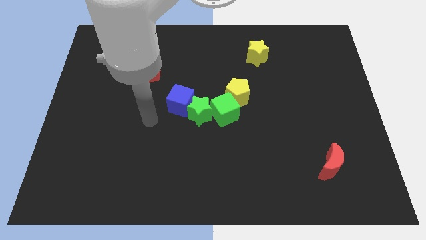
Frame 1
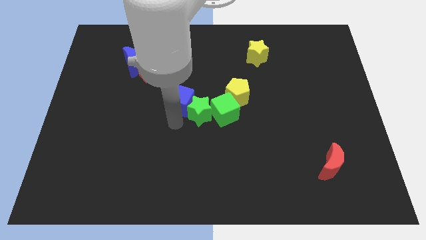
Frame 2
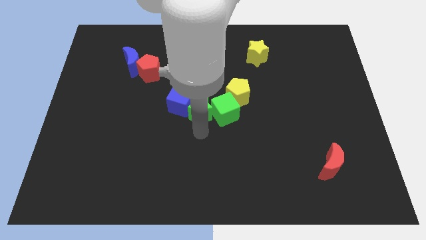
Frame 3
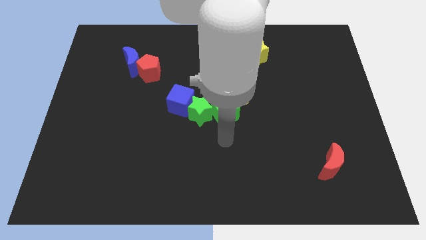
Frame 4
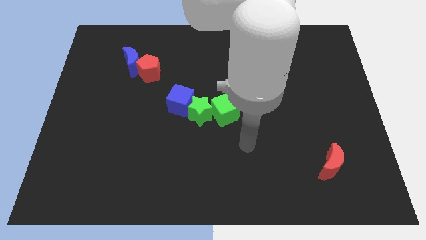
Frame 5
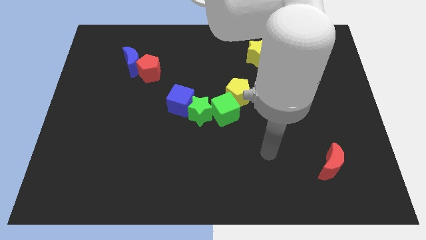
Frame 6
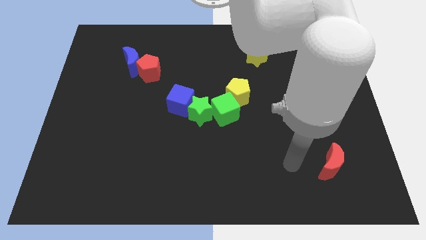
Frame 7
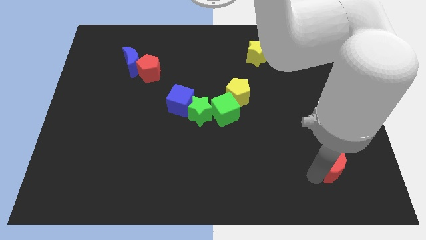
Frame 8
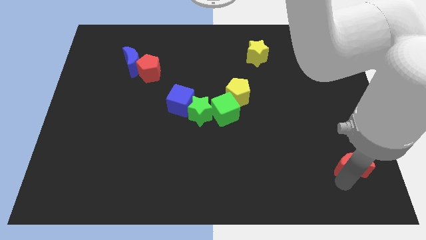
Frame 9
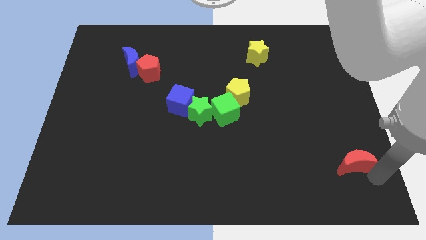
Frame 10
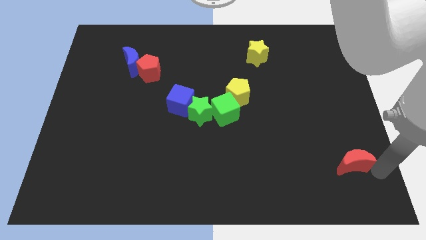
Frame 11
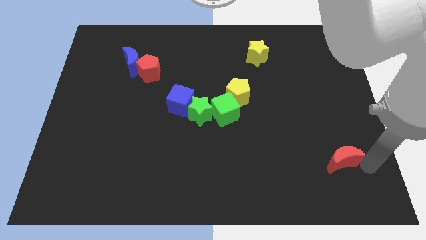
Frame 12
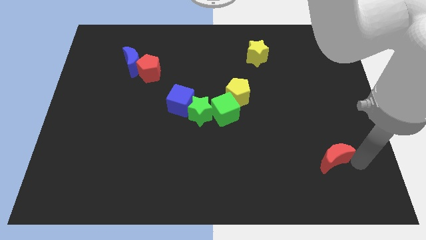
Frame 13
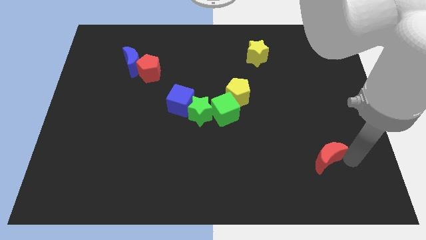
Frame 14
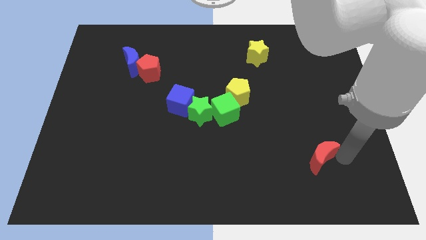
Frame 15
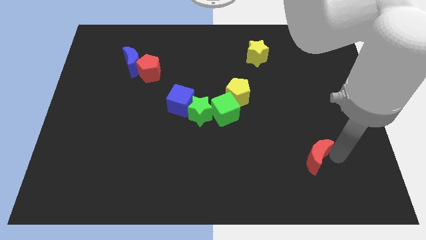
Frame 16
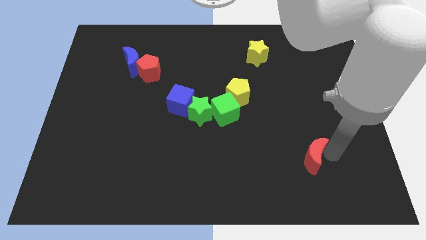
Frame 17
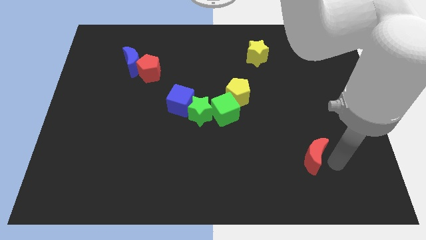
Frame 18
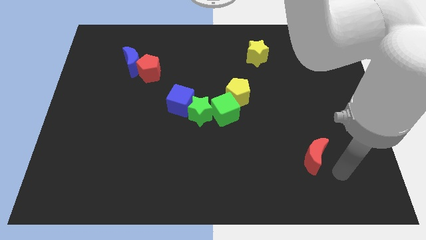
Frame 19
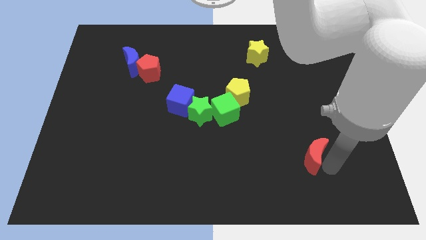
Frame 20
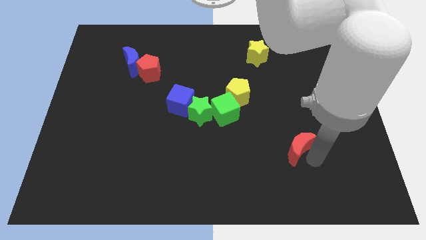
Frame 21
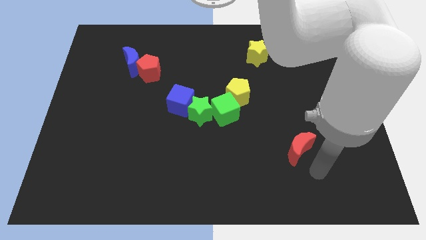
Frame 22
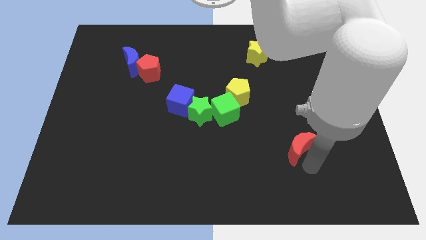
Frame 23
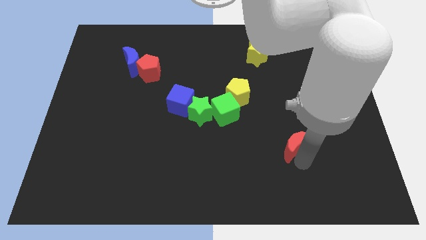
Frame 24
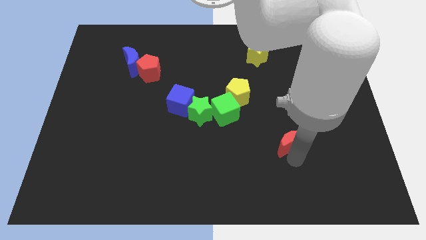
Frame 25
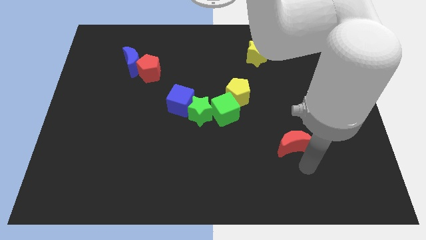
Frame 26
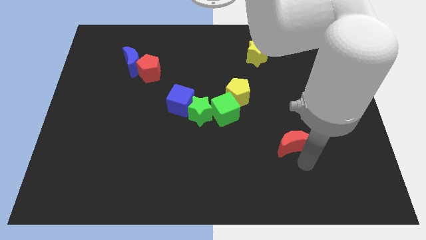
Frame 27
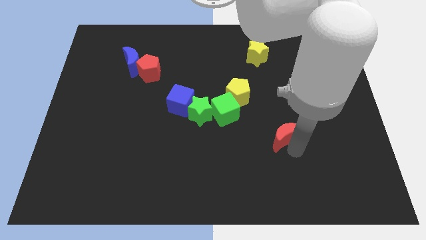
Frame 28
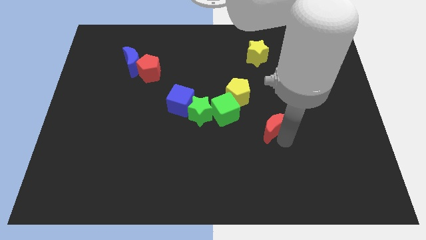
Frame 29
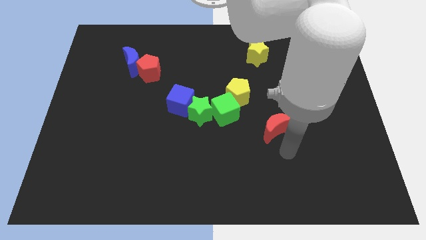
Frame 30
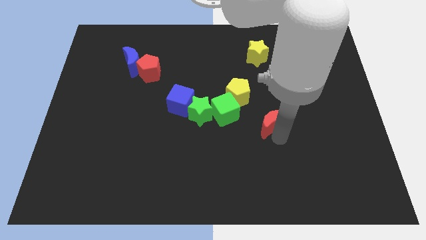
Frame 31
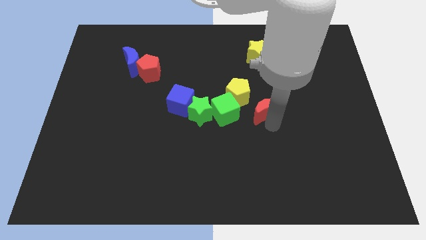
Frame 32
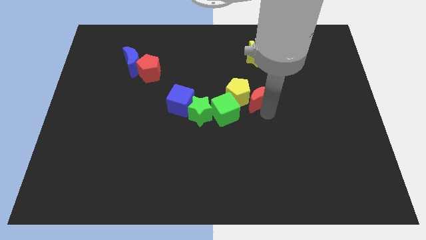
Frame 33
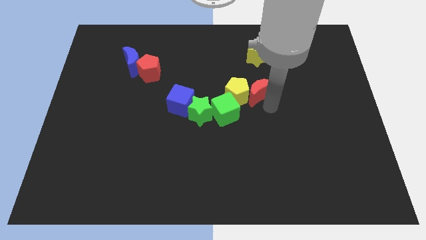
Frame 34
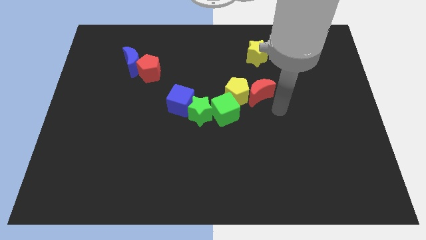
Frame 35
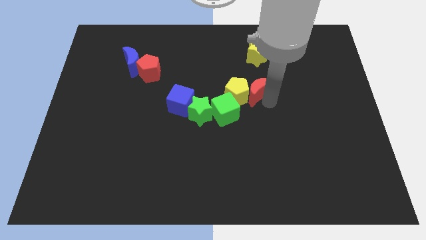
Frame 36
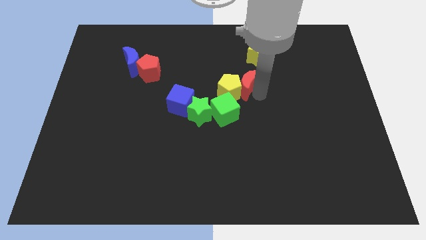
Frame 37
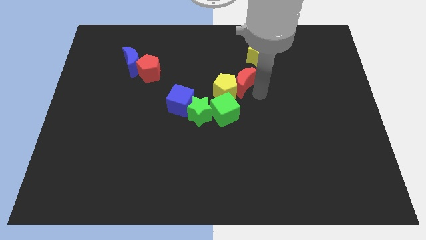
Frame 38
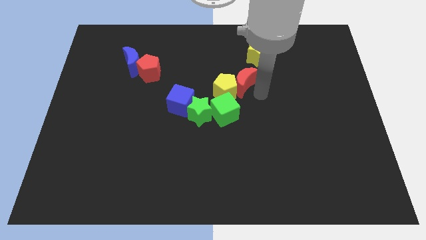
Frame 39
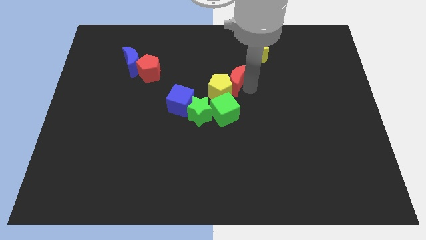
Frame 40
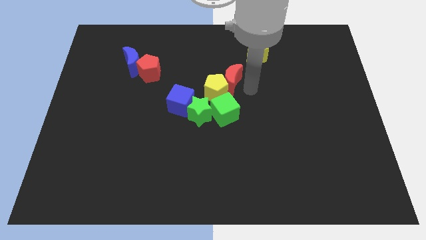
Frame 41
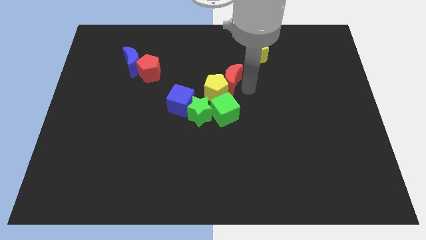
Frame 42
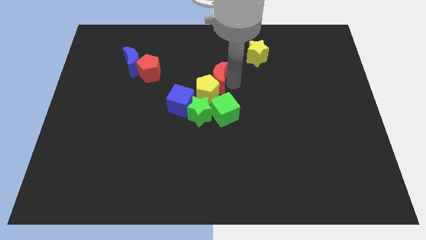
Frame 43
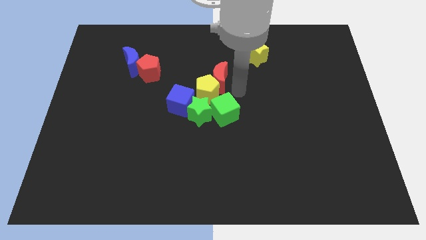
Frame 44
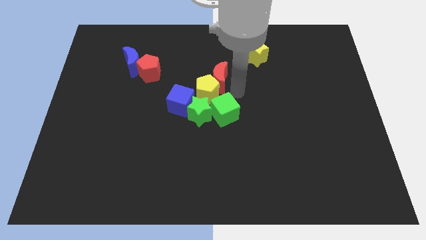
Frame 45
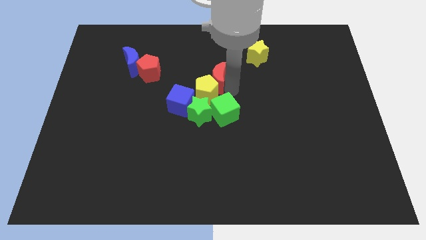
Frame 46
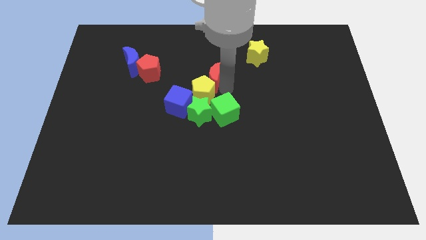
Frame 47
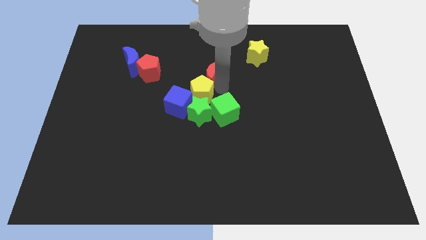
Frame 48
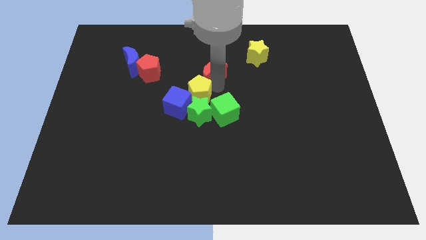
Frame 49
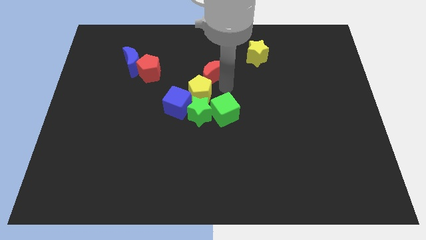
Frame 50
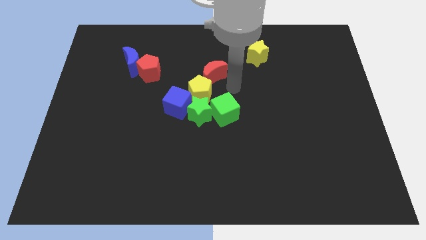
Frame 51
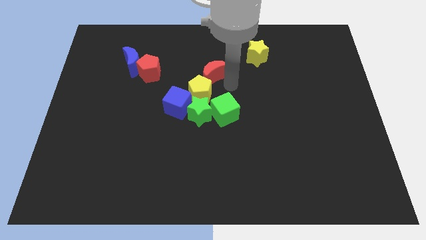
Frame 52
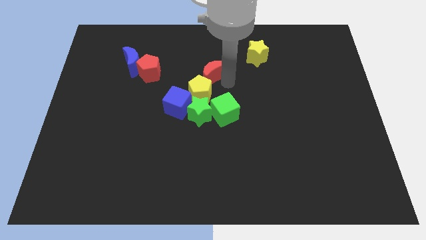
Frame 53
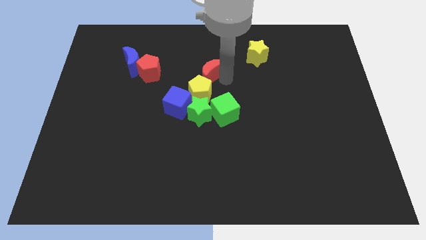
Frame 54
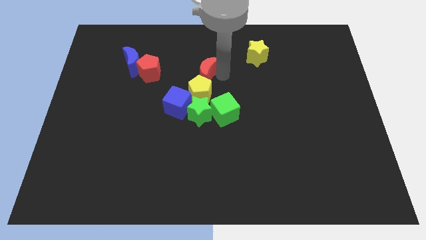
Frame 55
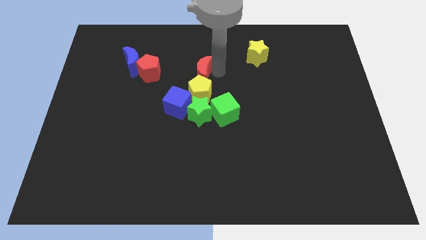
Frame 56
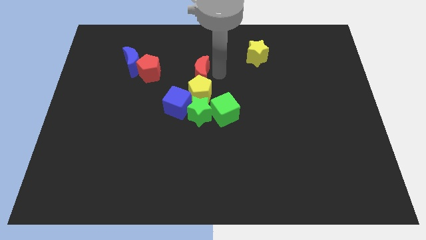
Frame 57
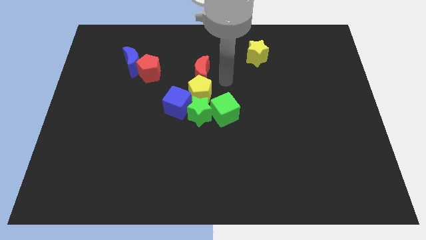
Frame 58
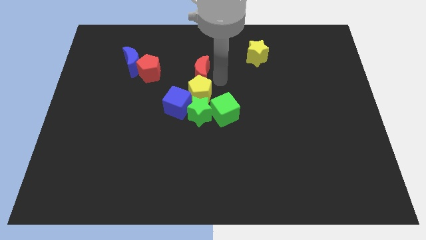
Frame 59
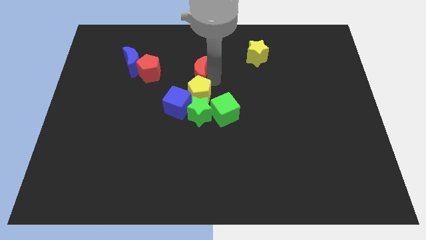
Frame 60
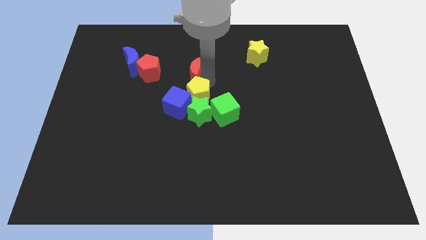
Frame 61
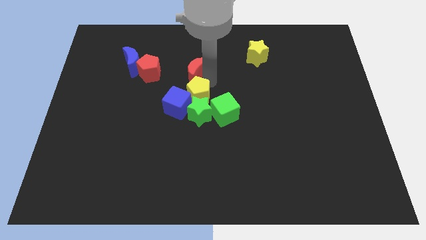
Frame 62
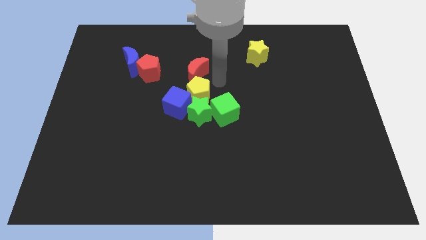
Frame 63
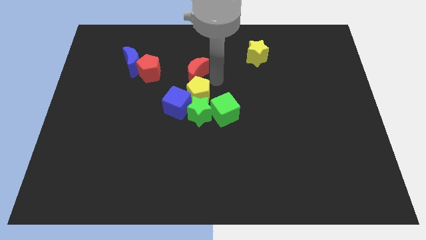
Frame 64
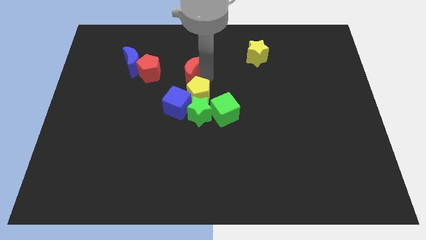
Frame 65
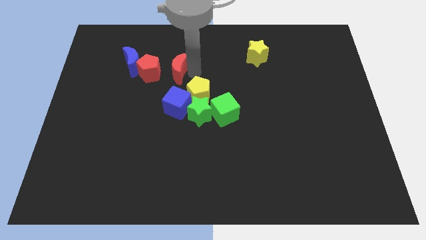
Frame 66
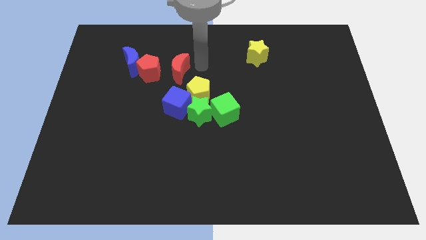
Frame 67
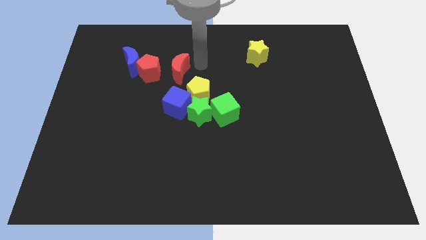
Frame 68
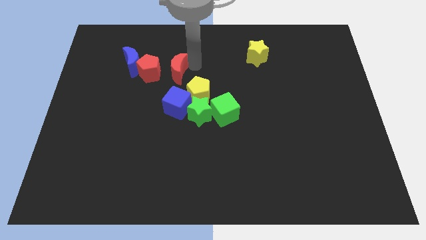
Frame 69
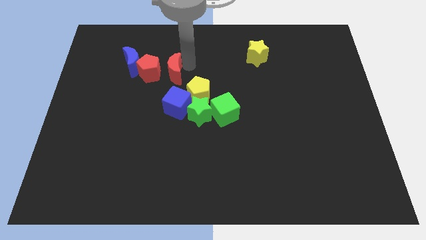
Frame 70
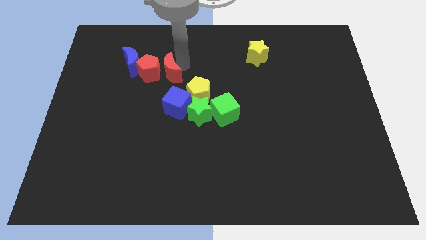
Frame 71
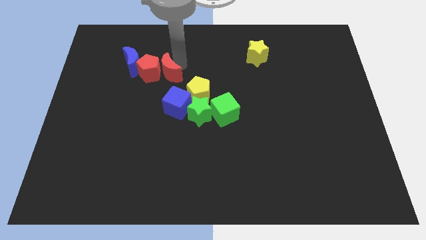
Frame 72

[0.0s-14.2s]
move the red moon diagonally down and to the right of the blue moon
